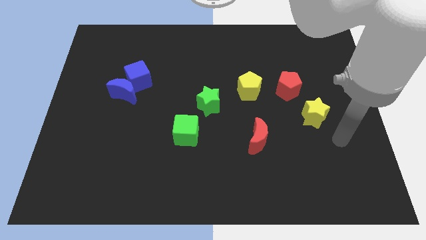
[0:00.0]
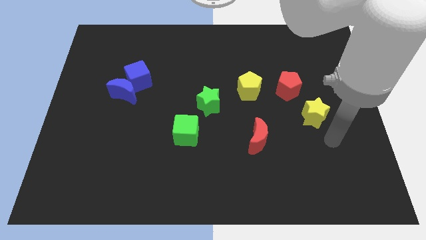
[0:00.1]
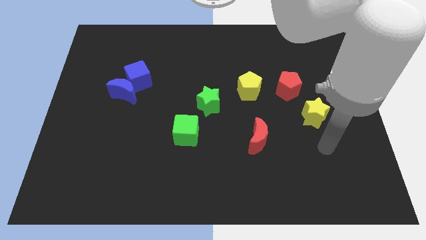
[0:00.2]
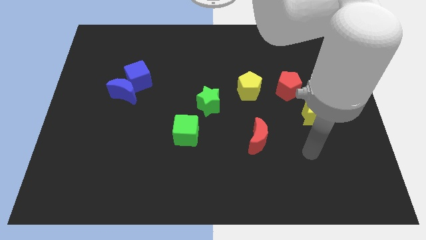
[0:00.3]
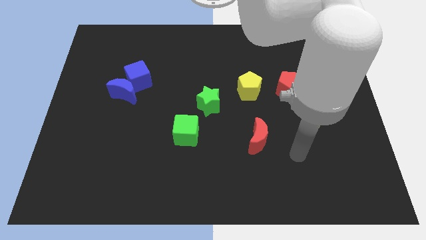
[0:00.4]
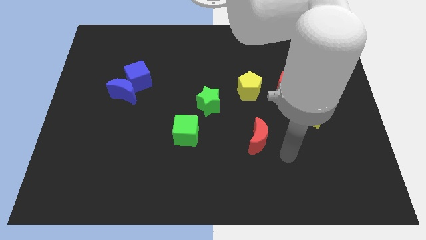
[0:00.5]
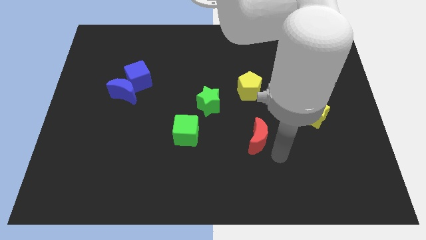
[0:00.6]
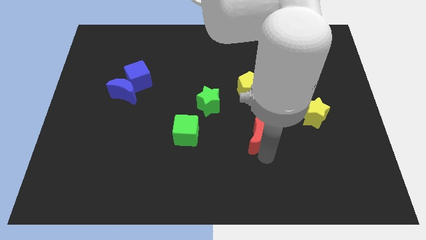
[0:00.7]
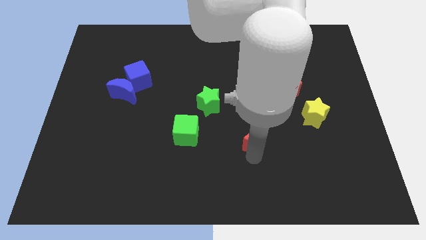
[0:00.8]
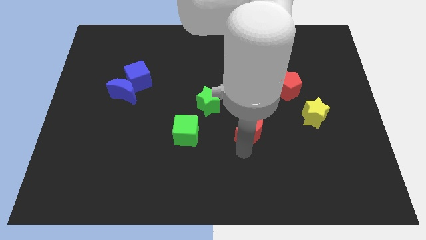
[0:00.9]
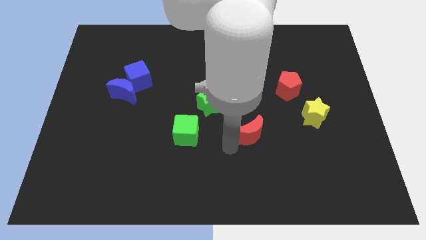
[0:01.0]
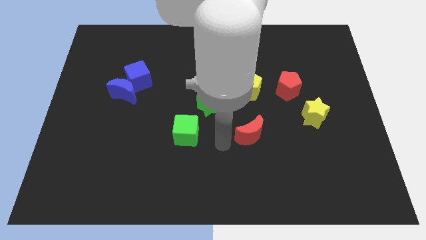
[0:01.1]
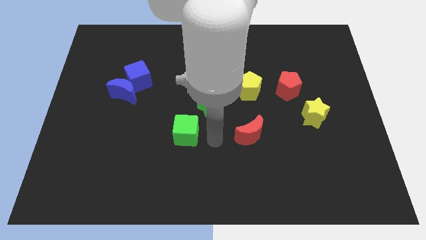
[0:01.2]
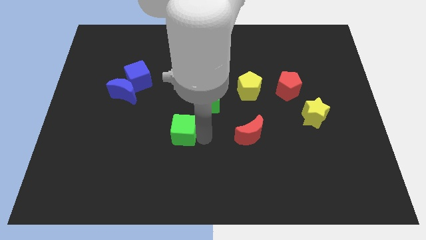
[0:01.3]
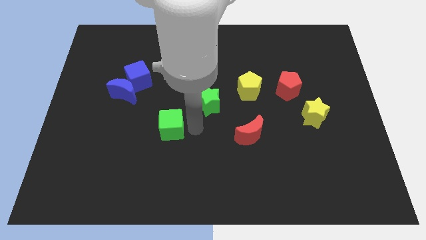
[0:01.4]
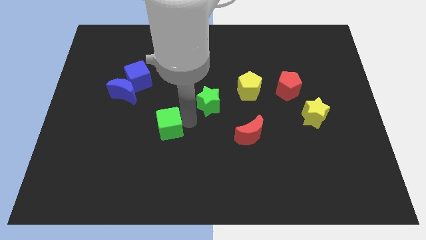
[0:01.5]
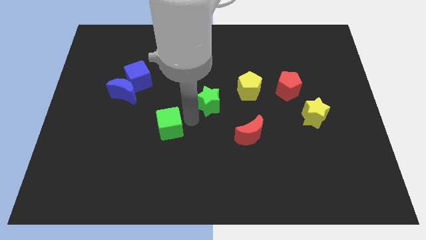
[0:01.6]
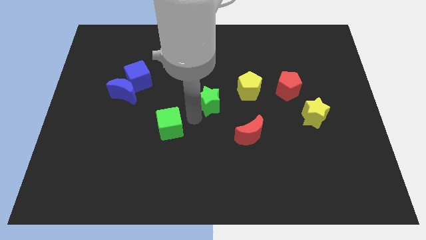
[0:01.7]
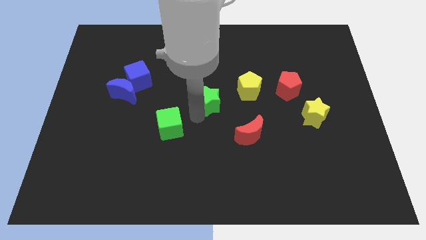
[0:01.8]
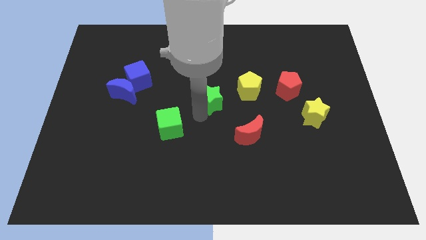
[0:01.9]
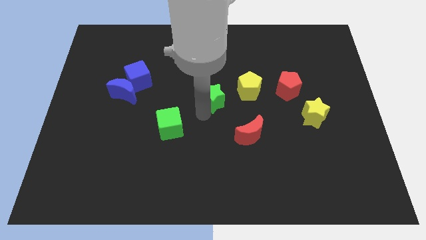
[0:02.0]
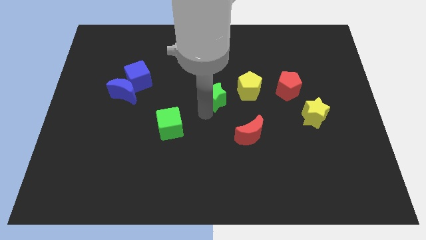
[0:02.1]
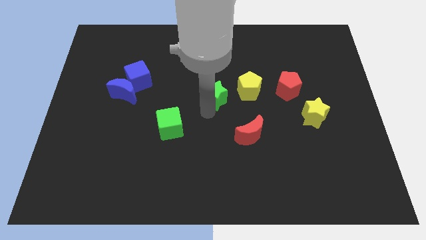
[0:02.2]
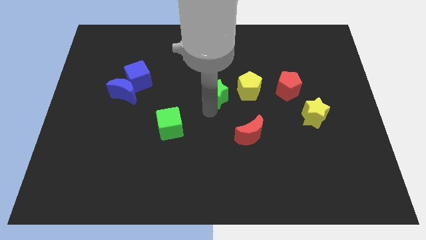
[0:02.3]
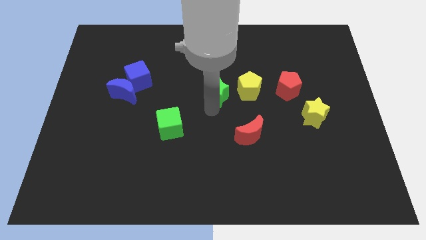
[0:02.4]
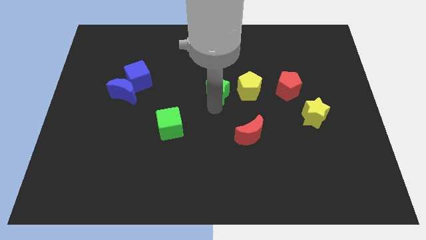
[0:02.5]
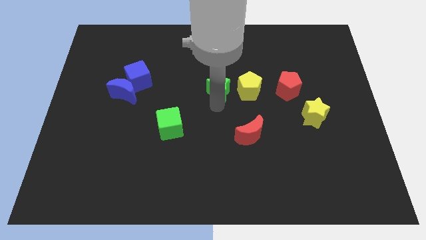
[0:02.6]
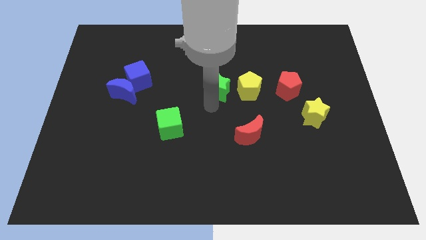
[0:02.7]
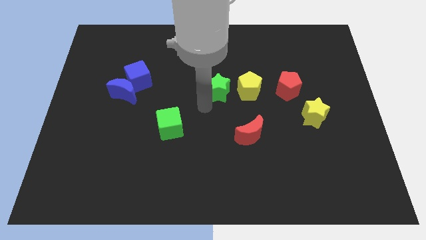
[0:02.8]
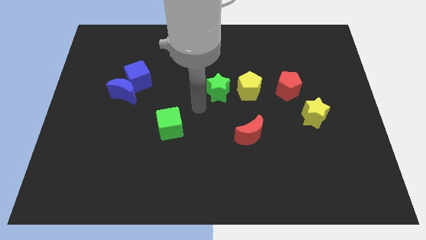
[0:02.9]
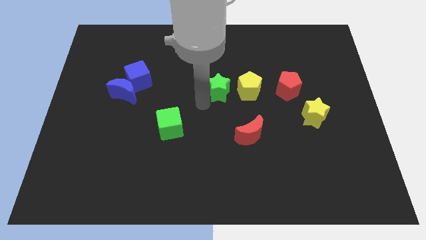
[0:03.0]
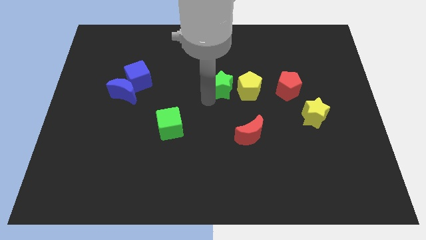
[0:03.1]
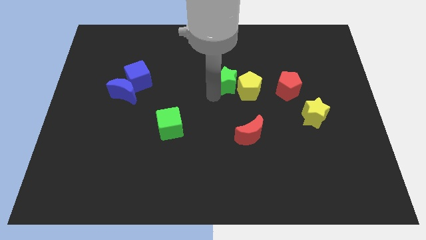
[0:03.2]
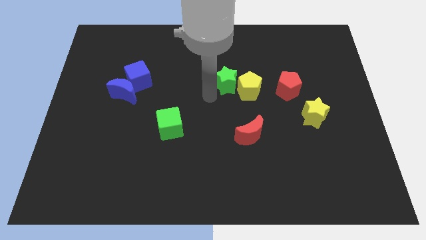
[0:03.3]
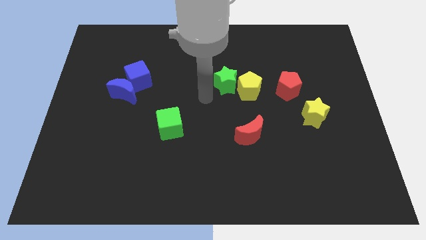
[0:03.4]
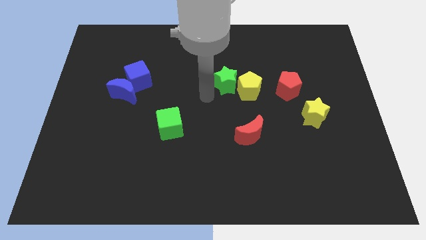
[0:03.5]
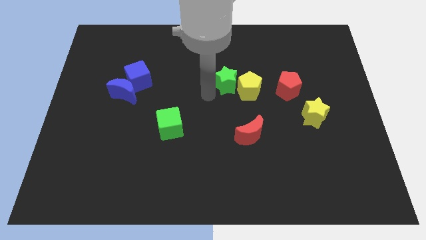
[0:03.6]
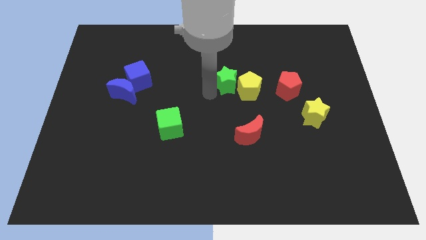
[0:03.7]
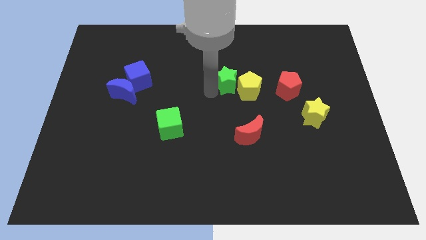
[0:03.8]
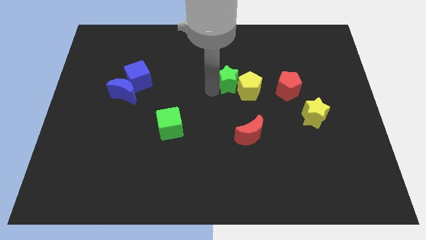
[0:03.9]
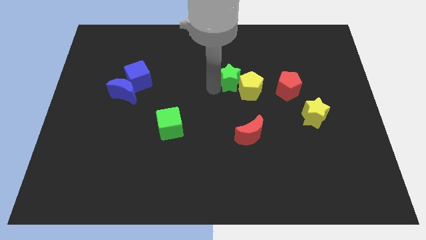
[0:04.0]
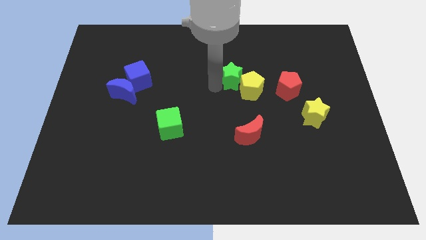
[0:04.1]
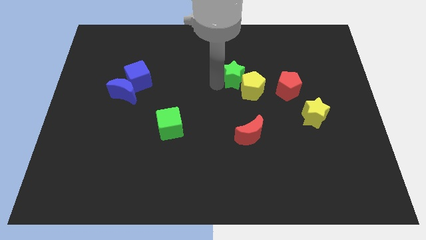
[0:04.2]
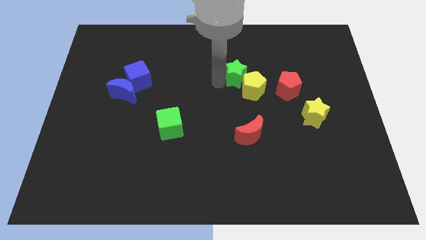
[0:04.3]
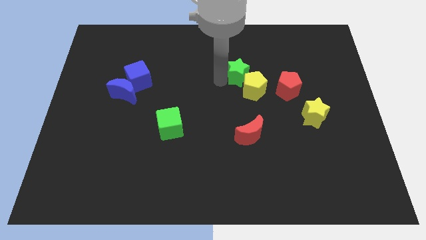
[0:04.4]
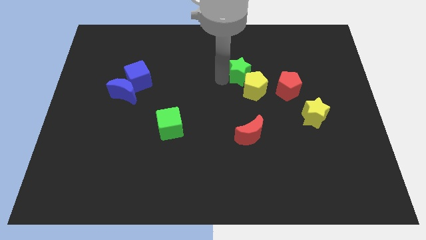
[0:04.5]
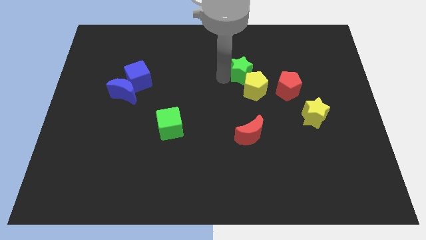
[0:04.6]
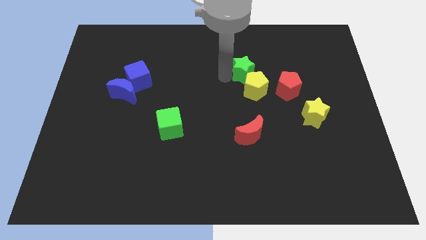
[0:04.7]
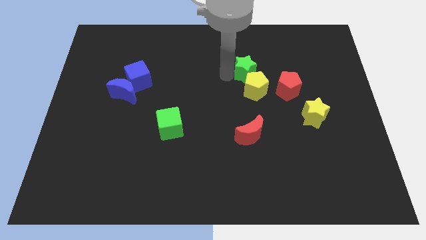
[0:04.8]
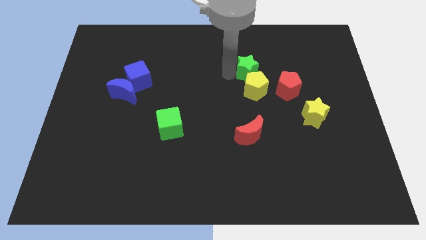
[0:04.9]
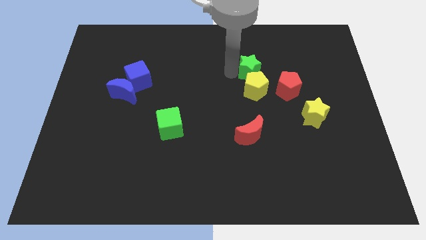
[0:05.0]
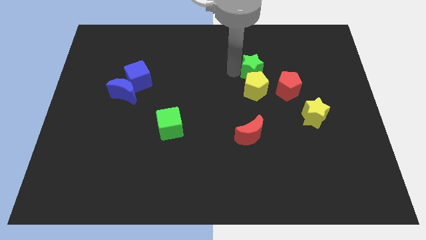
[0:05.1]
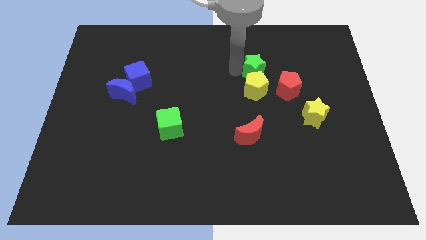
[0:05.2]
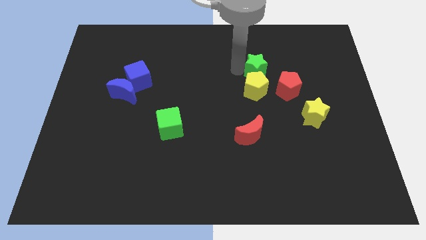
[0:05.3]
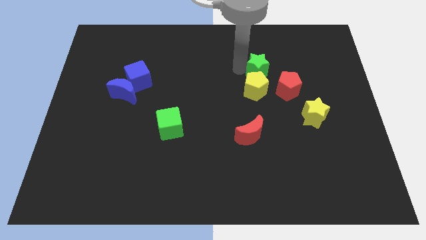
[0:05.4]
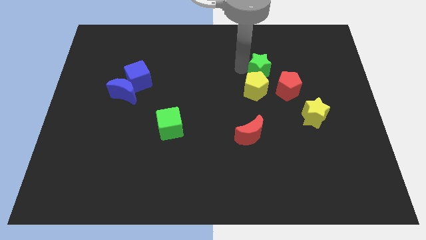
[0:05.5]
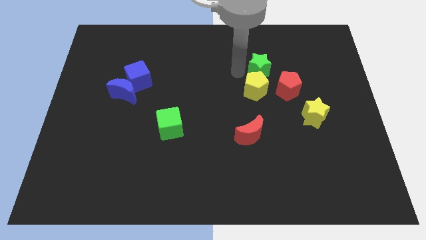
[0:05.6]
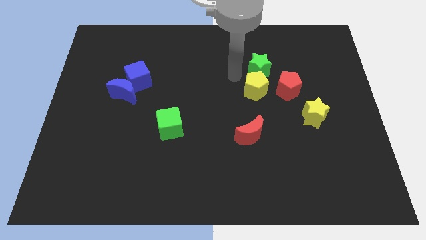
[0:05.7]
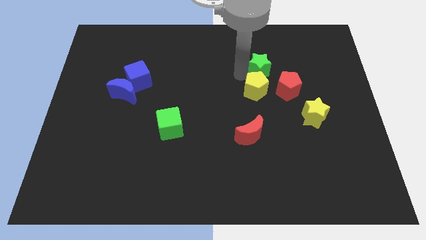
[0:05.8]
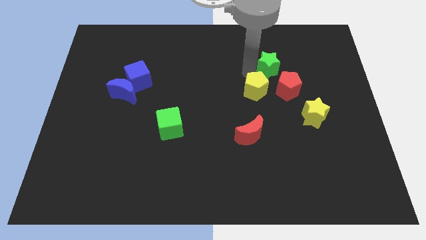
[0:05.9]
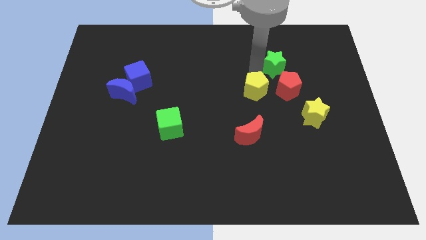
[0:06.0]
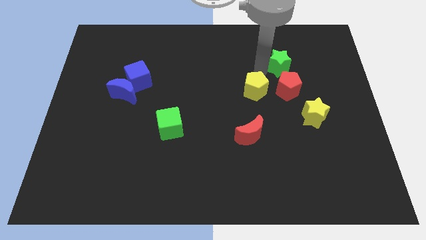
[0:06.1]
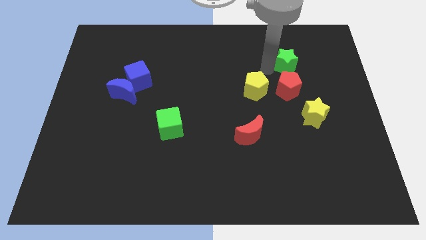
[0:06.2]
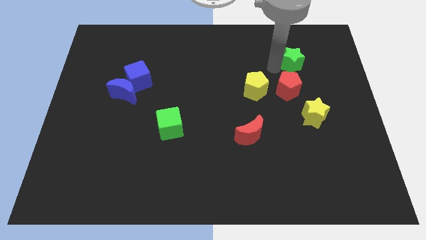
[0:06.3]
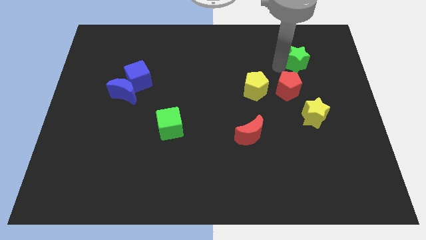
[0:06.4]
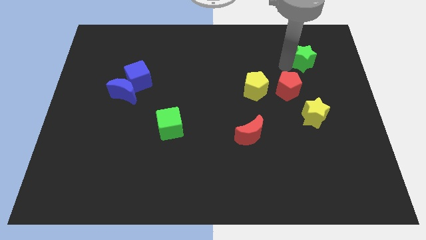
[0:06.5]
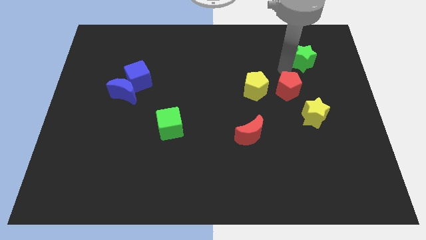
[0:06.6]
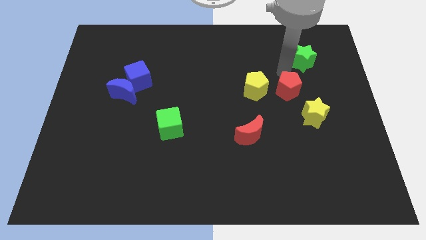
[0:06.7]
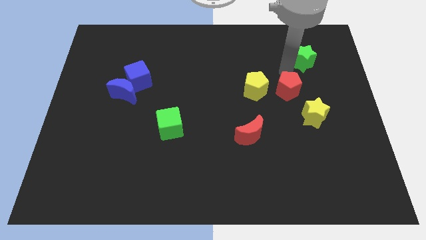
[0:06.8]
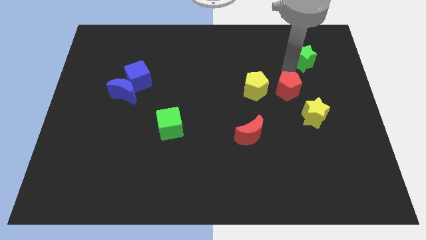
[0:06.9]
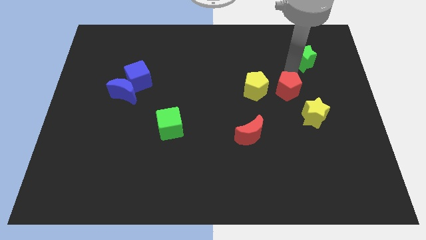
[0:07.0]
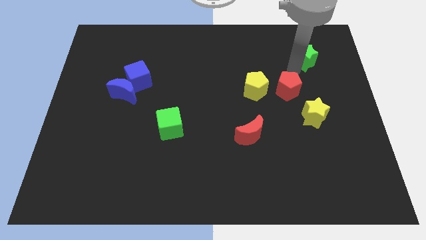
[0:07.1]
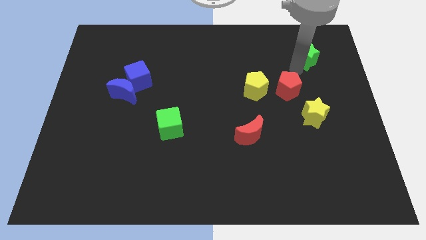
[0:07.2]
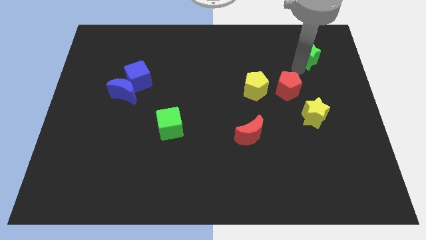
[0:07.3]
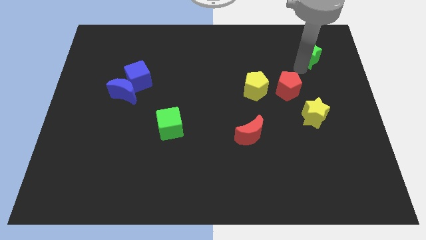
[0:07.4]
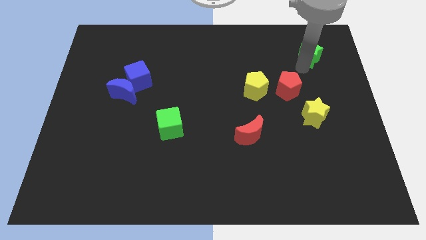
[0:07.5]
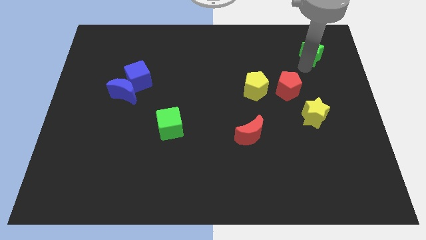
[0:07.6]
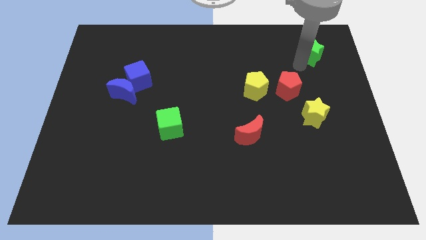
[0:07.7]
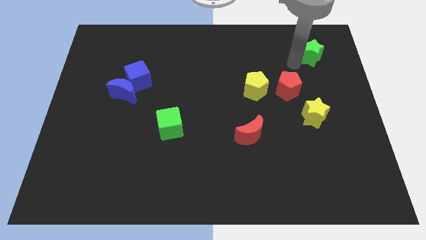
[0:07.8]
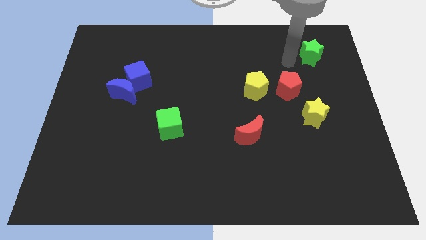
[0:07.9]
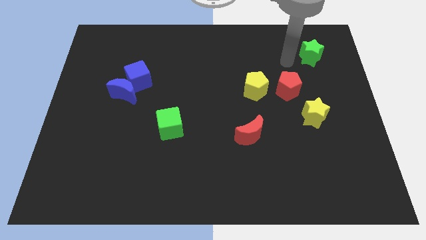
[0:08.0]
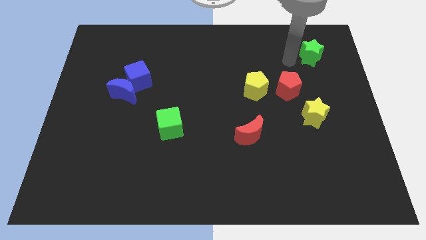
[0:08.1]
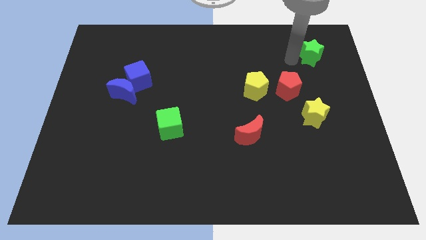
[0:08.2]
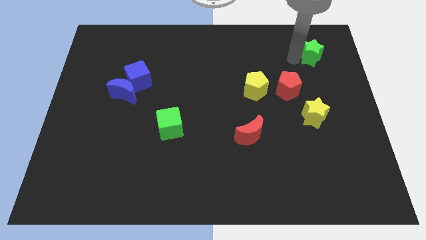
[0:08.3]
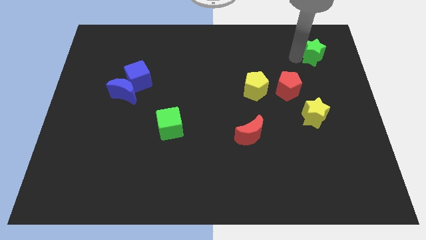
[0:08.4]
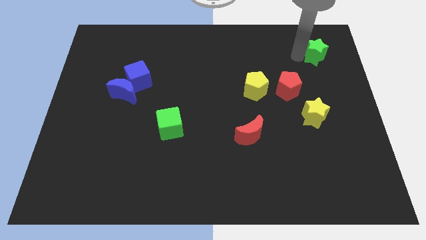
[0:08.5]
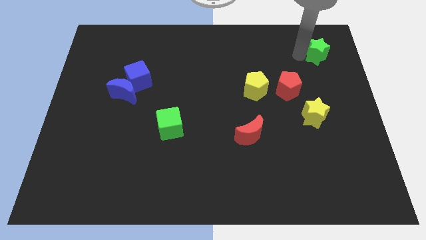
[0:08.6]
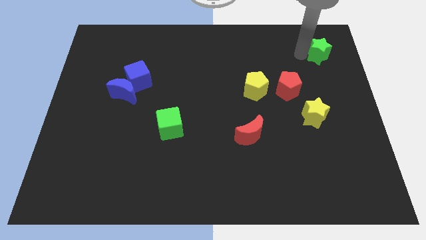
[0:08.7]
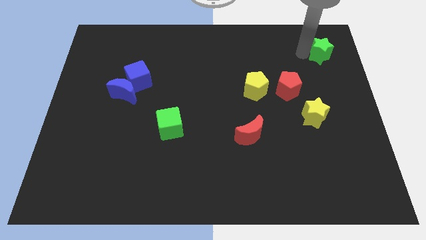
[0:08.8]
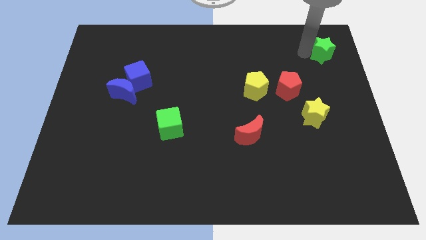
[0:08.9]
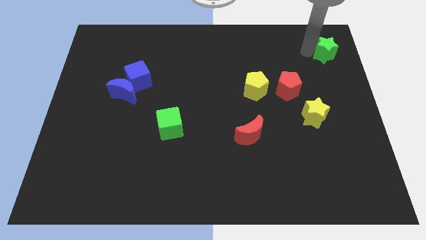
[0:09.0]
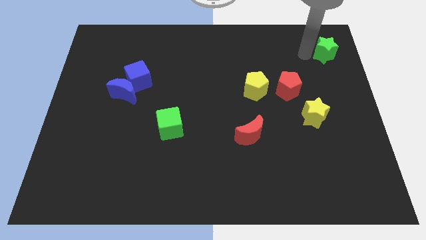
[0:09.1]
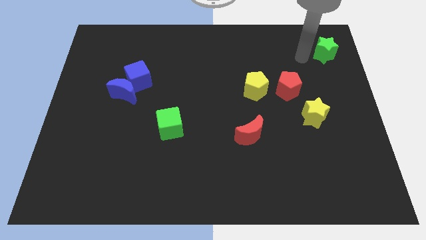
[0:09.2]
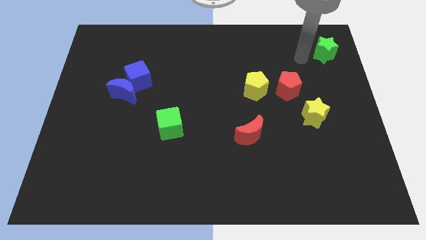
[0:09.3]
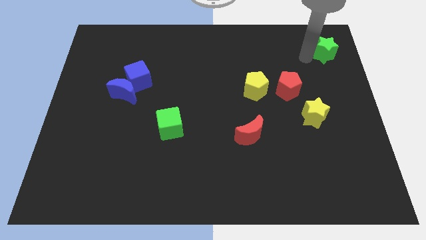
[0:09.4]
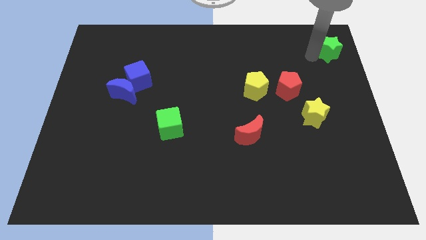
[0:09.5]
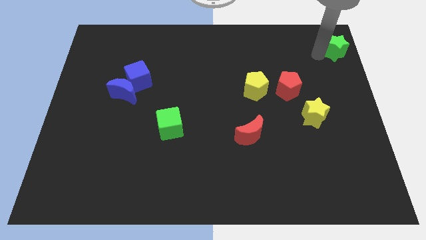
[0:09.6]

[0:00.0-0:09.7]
slide the green star to the upper right corner
